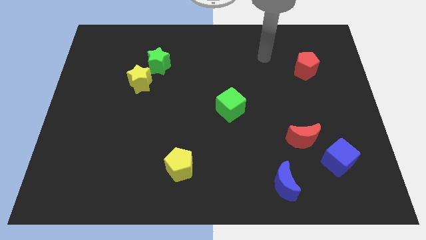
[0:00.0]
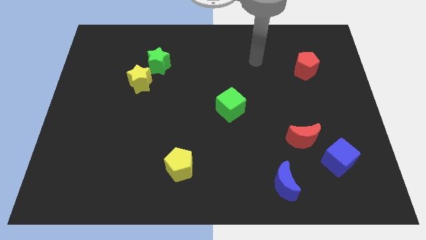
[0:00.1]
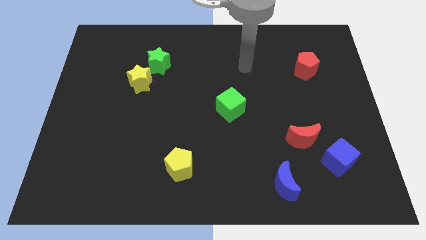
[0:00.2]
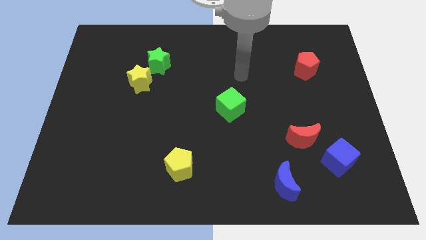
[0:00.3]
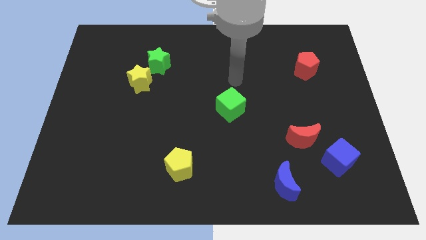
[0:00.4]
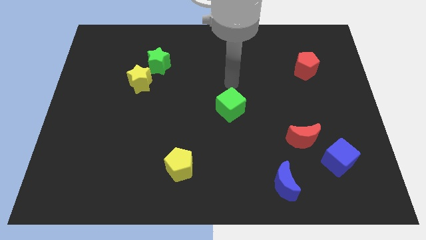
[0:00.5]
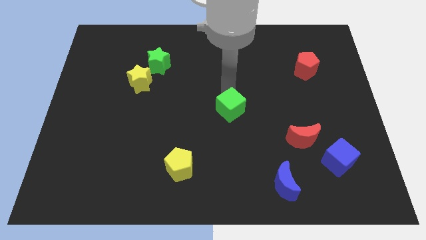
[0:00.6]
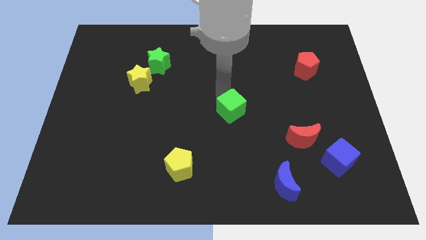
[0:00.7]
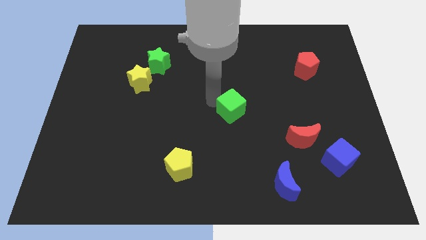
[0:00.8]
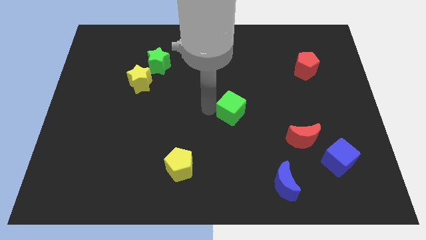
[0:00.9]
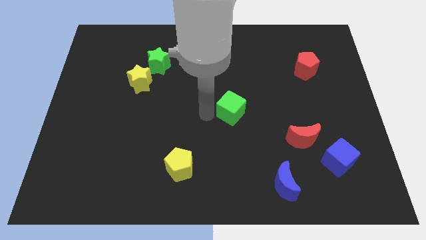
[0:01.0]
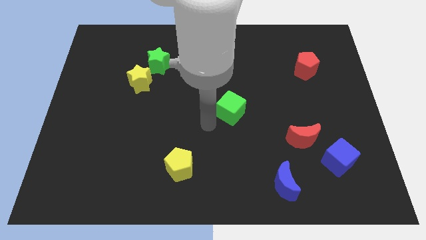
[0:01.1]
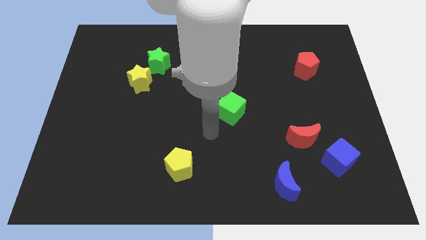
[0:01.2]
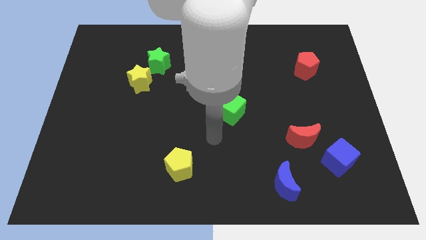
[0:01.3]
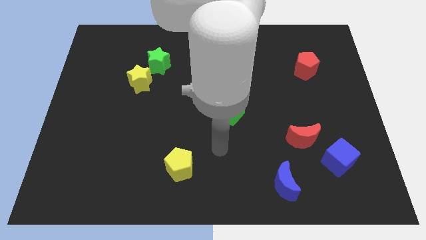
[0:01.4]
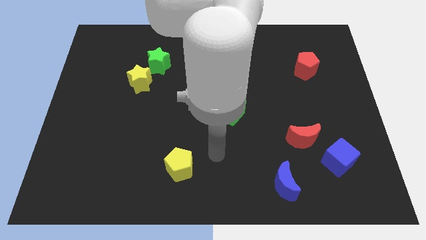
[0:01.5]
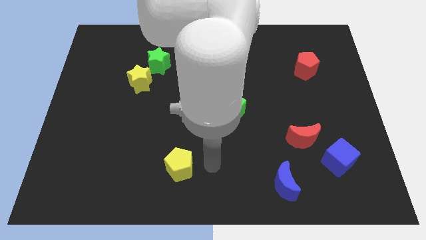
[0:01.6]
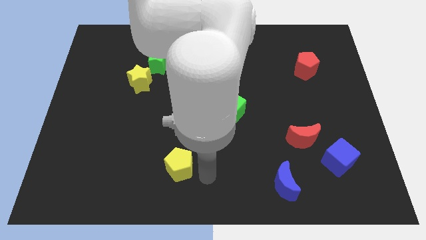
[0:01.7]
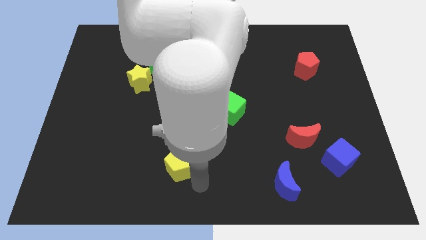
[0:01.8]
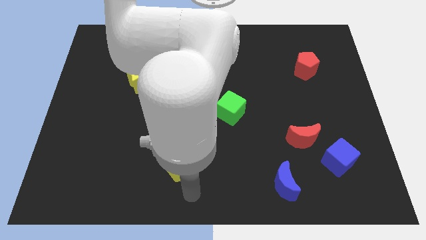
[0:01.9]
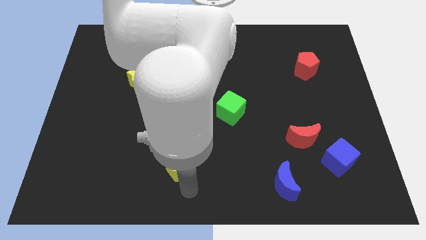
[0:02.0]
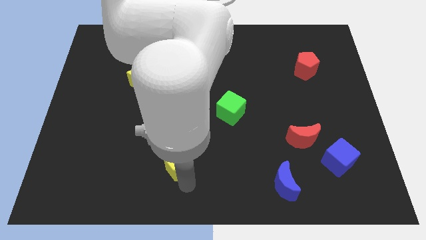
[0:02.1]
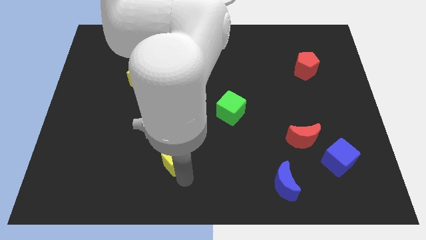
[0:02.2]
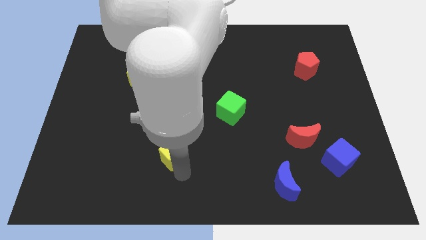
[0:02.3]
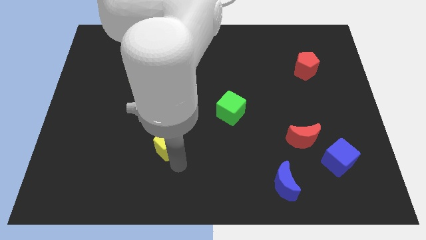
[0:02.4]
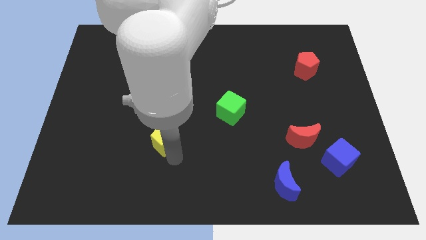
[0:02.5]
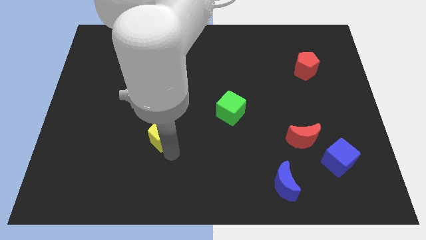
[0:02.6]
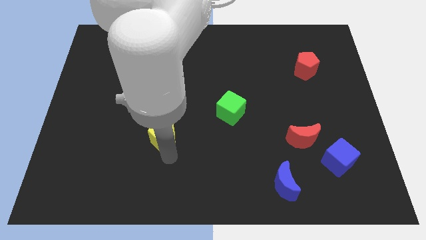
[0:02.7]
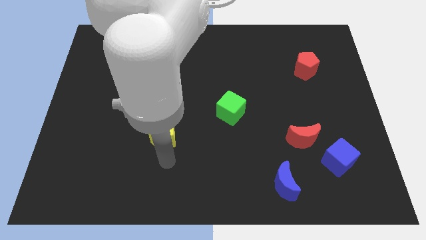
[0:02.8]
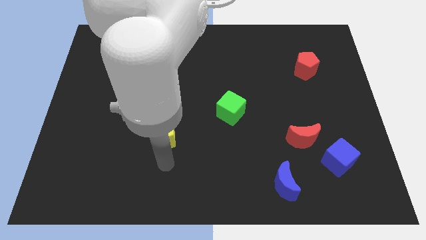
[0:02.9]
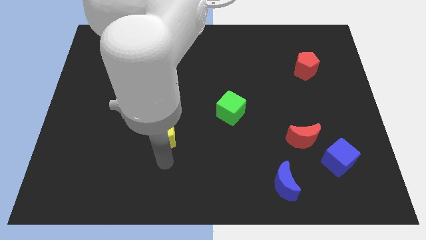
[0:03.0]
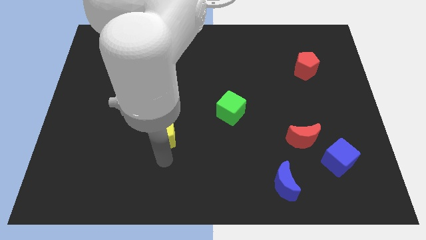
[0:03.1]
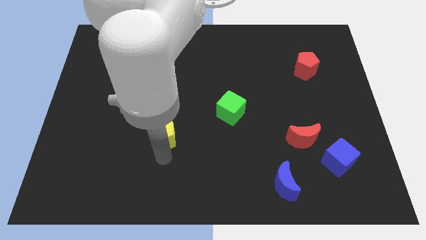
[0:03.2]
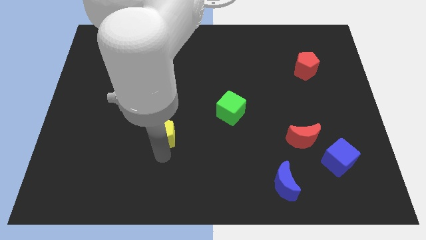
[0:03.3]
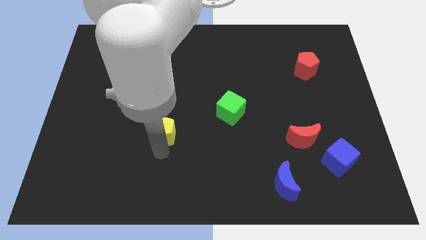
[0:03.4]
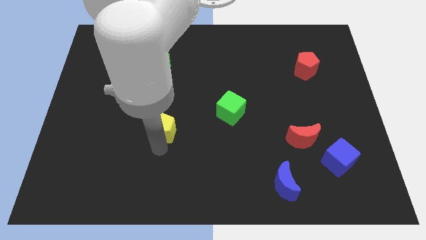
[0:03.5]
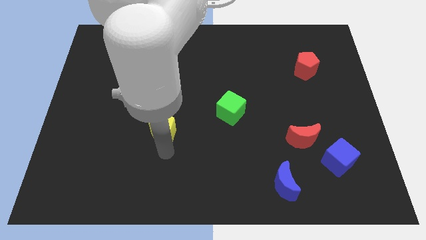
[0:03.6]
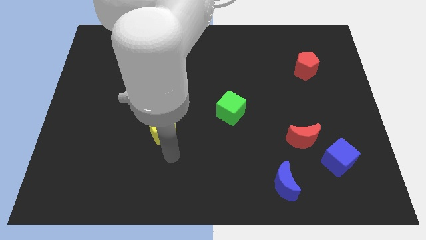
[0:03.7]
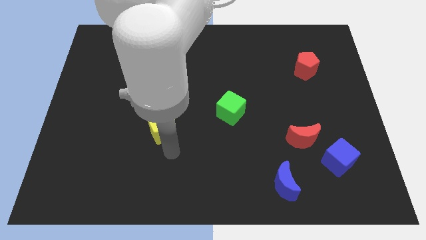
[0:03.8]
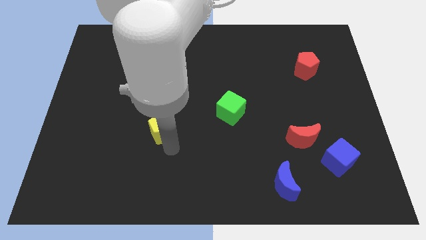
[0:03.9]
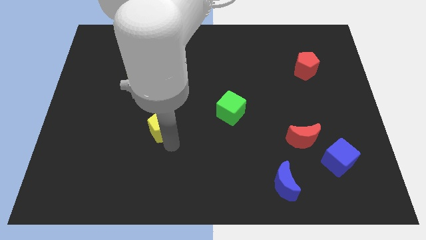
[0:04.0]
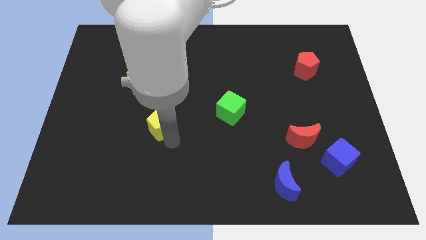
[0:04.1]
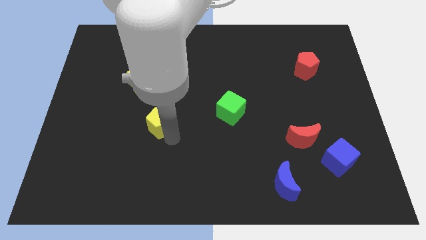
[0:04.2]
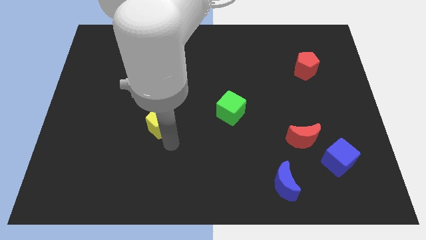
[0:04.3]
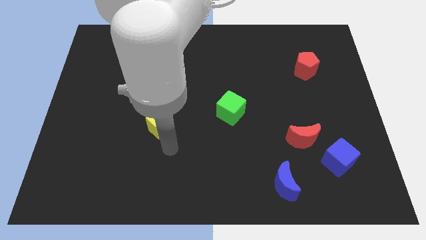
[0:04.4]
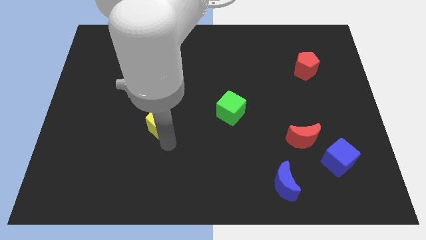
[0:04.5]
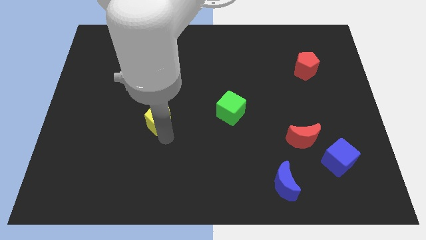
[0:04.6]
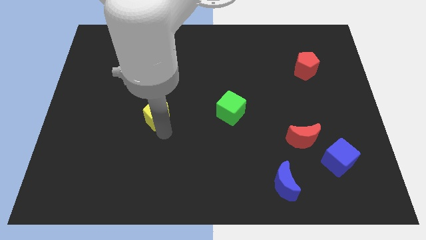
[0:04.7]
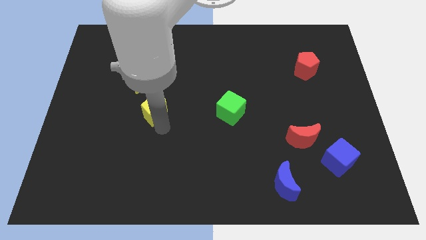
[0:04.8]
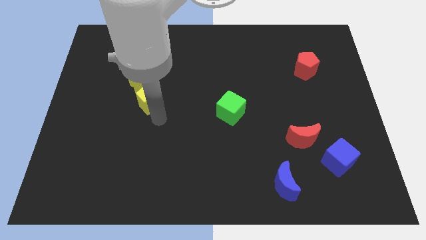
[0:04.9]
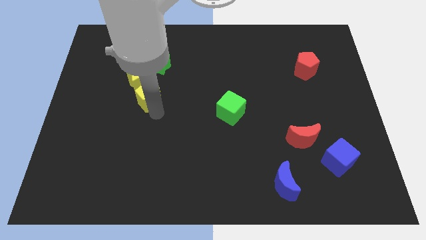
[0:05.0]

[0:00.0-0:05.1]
put the yellow pentagon to the yellow star

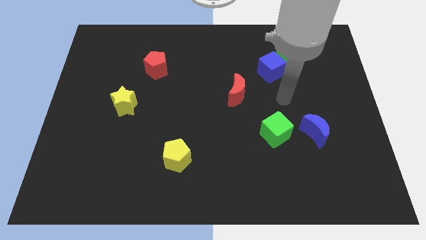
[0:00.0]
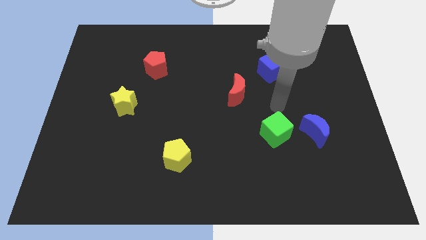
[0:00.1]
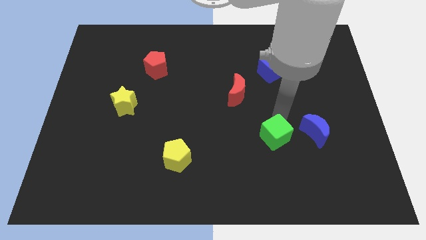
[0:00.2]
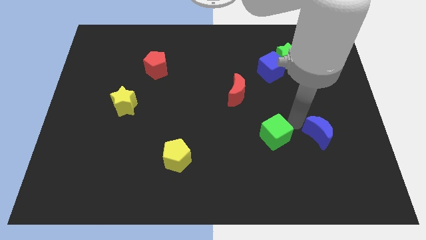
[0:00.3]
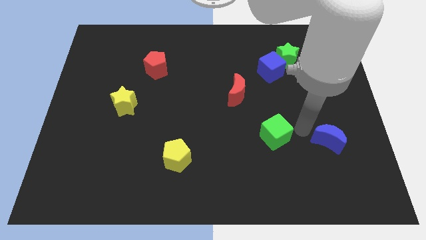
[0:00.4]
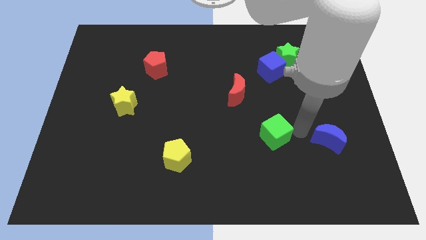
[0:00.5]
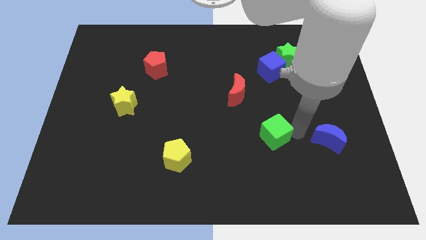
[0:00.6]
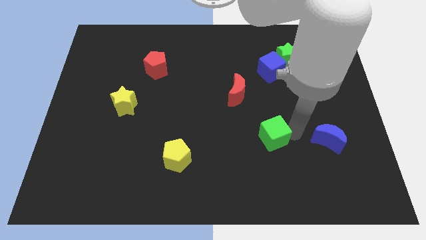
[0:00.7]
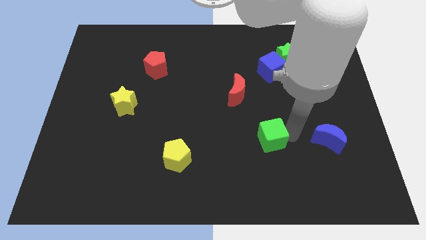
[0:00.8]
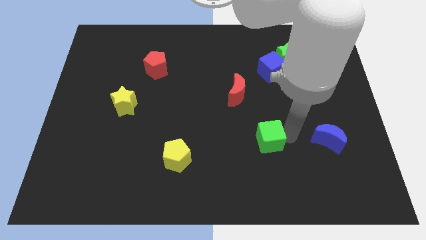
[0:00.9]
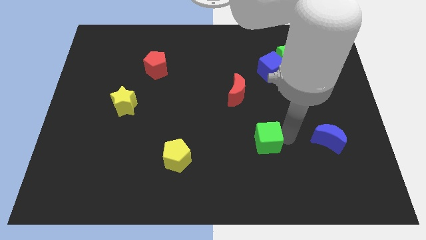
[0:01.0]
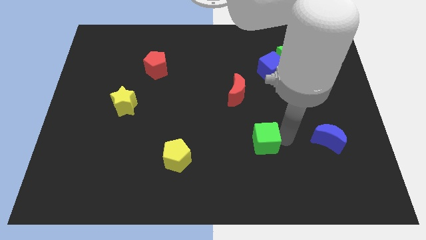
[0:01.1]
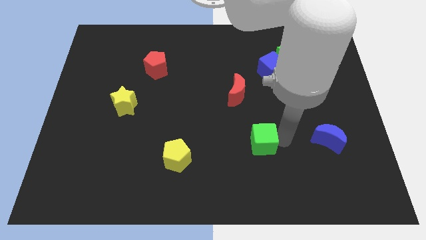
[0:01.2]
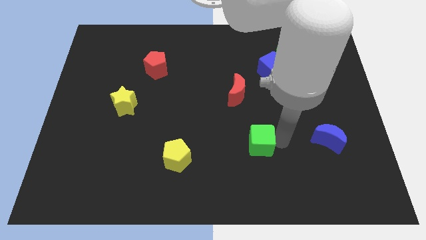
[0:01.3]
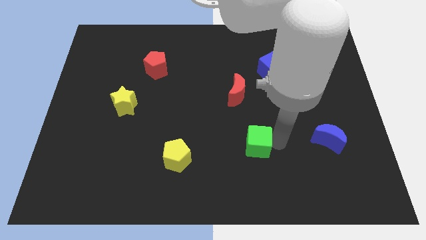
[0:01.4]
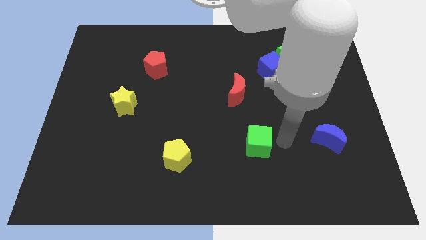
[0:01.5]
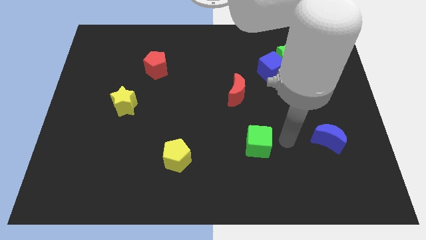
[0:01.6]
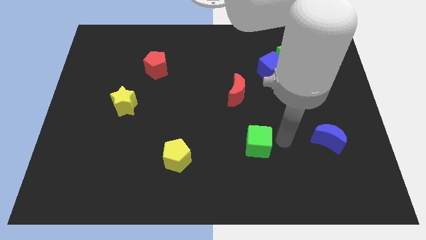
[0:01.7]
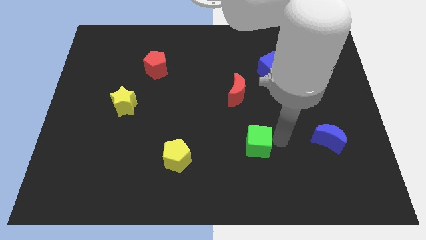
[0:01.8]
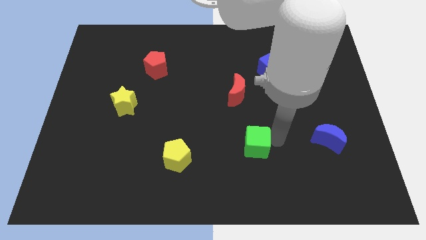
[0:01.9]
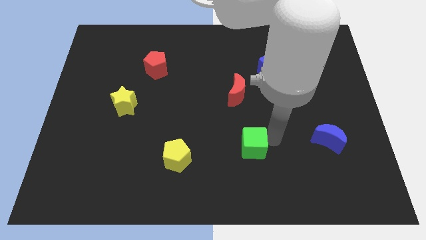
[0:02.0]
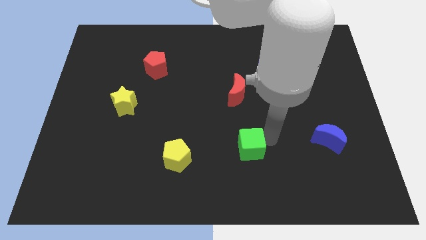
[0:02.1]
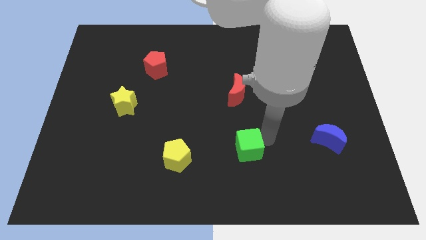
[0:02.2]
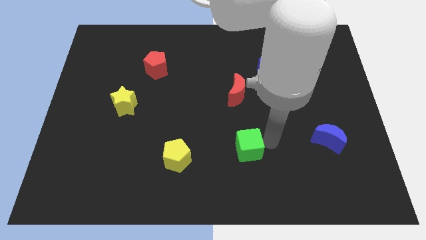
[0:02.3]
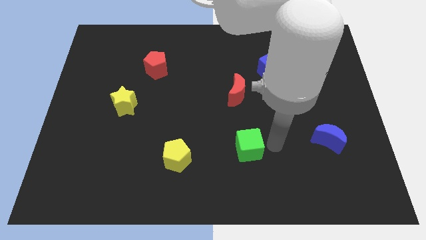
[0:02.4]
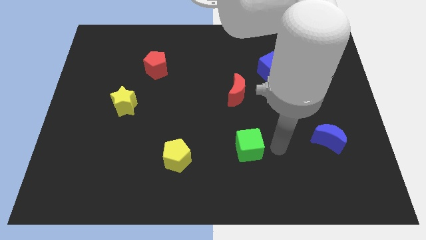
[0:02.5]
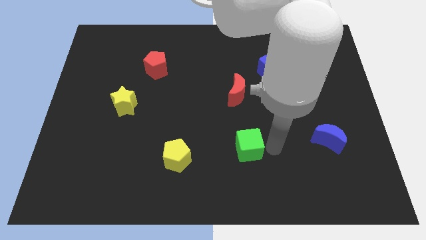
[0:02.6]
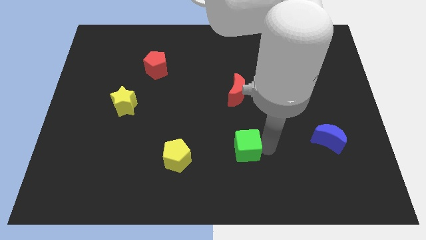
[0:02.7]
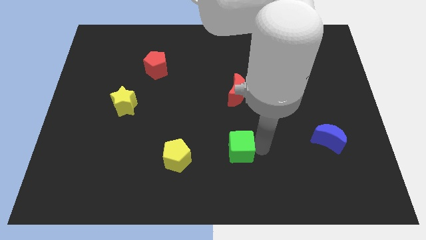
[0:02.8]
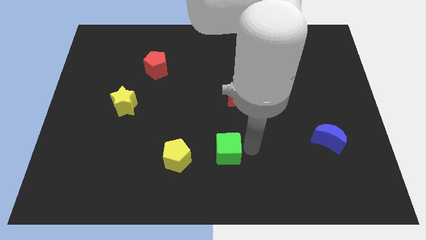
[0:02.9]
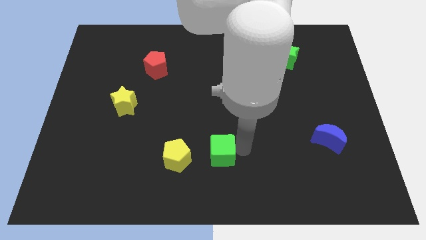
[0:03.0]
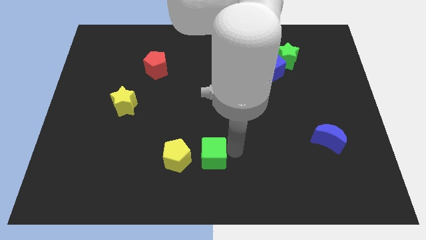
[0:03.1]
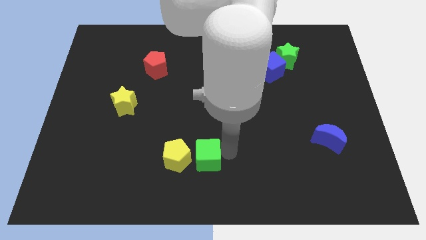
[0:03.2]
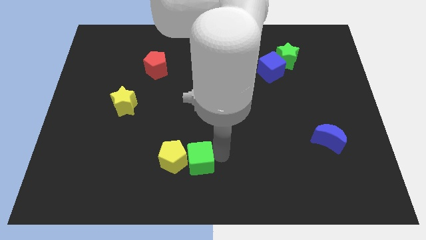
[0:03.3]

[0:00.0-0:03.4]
slide the green cube close to the yellow pentagon
